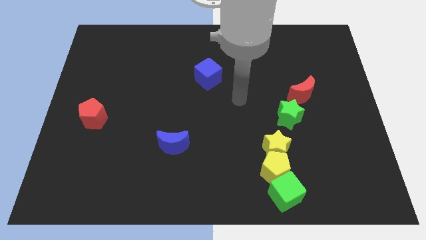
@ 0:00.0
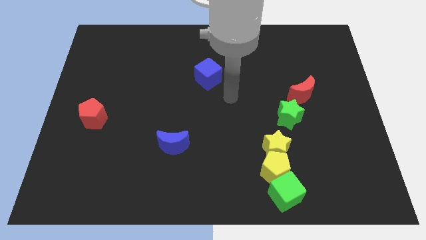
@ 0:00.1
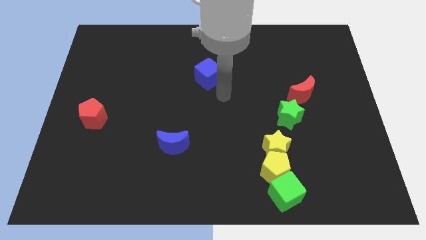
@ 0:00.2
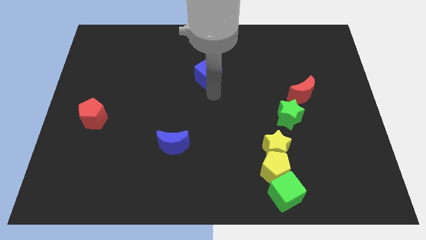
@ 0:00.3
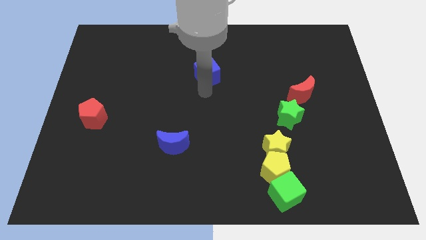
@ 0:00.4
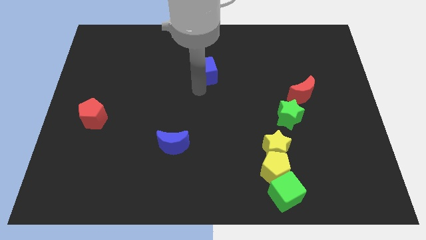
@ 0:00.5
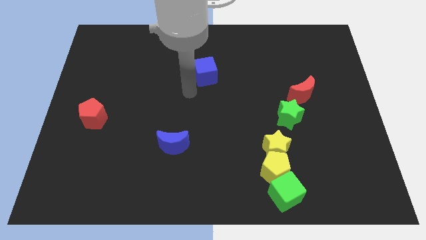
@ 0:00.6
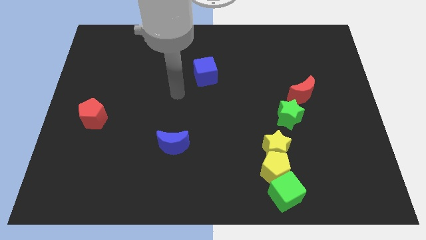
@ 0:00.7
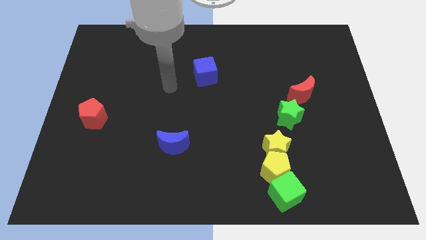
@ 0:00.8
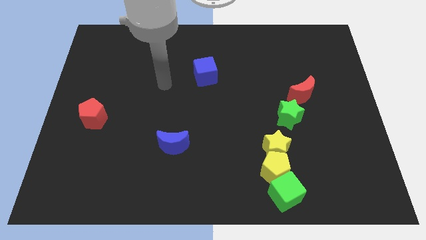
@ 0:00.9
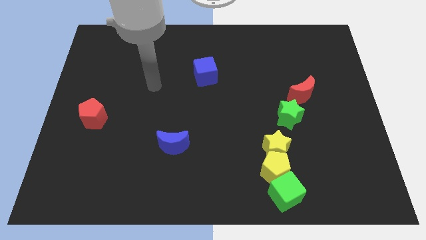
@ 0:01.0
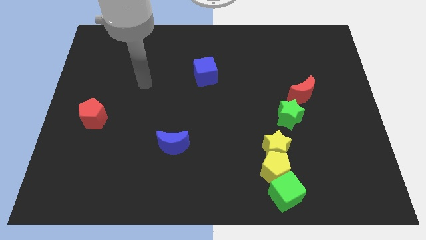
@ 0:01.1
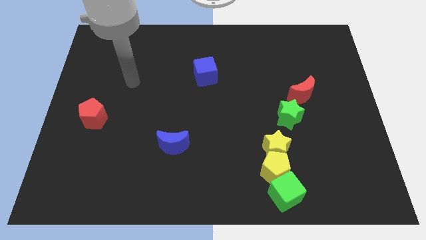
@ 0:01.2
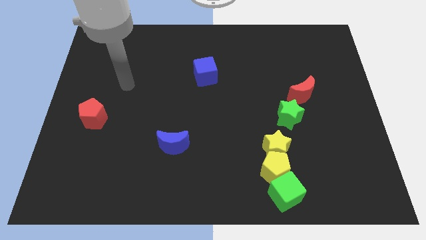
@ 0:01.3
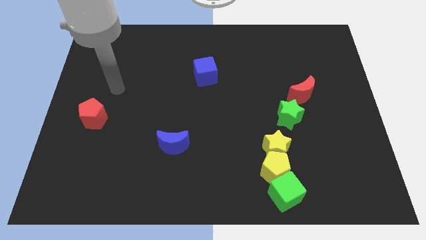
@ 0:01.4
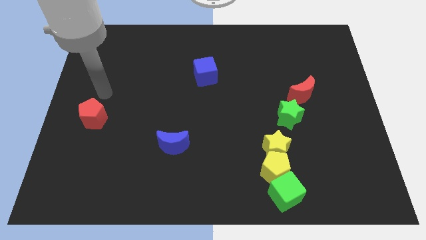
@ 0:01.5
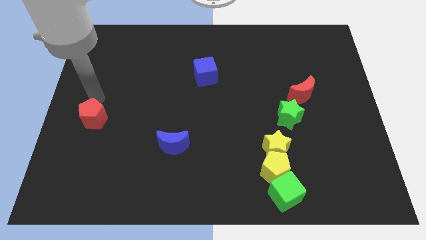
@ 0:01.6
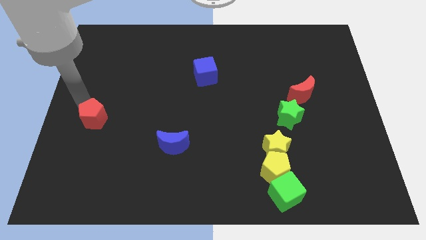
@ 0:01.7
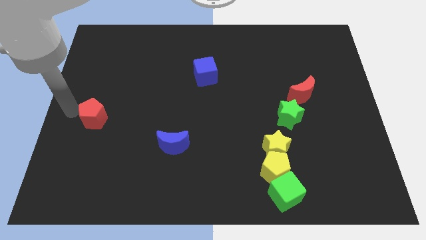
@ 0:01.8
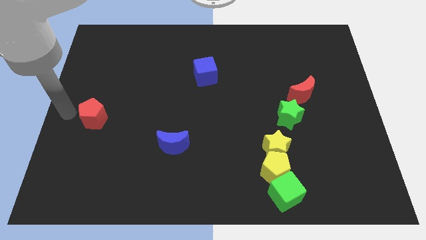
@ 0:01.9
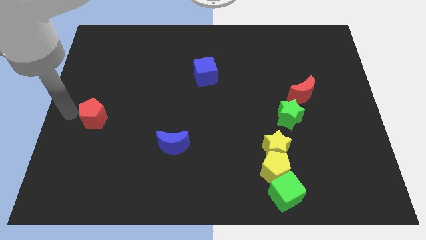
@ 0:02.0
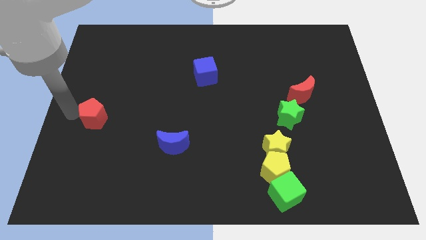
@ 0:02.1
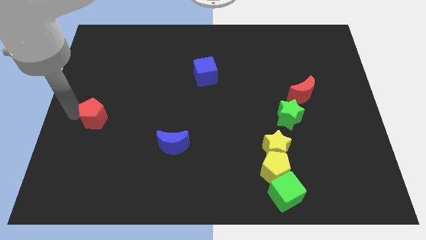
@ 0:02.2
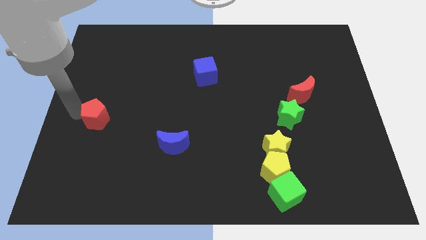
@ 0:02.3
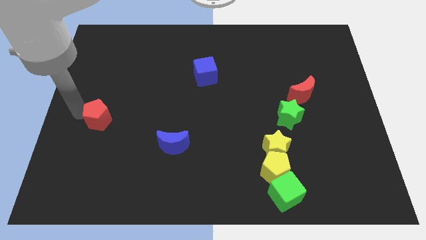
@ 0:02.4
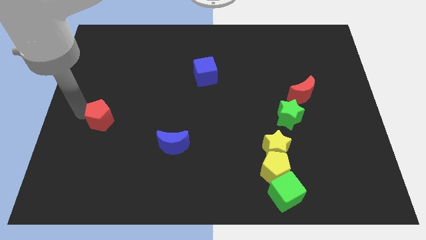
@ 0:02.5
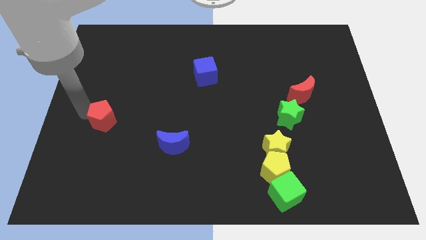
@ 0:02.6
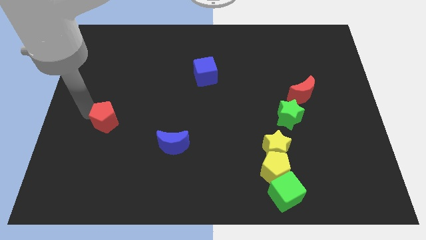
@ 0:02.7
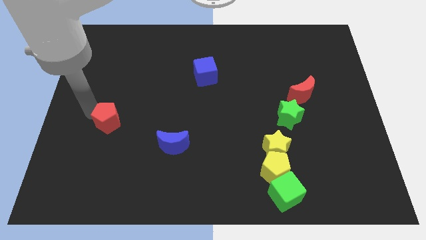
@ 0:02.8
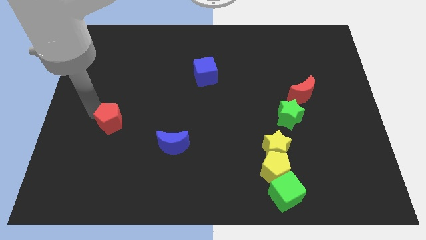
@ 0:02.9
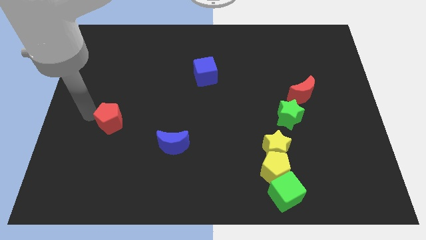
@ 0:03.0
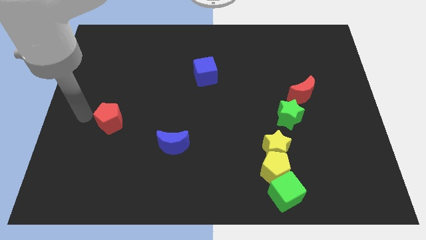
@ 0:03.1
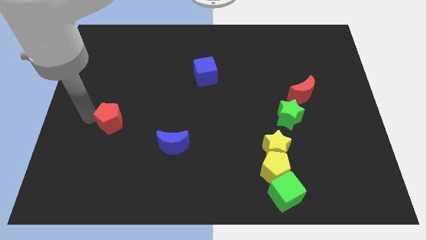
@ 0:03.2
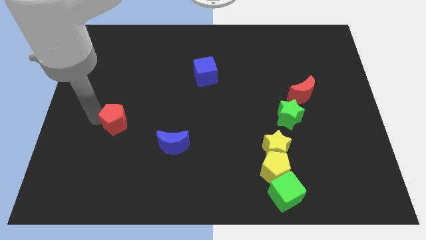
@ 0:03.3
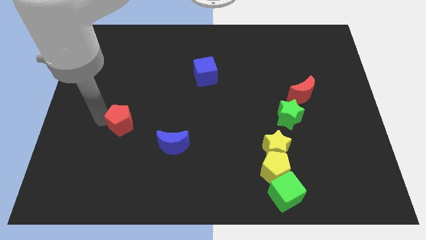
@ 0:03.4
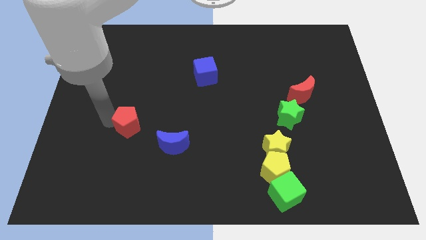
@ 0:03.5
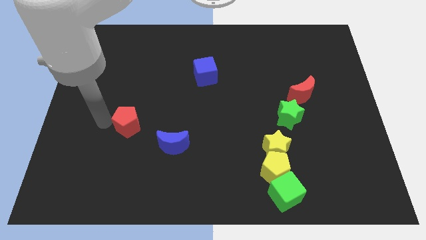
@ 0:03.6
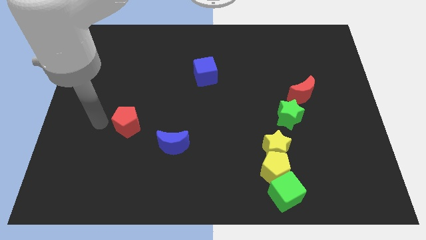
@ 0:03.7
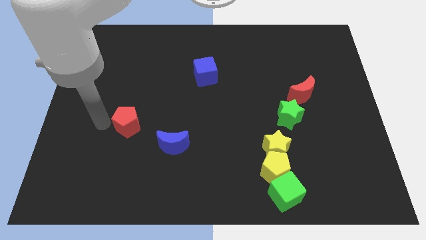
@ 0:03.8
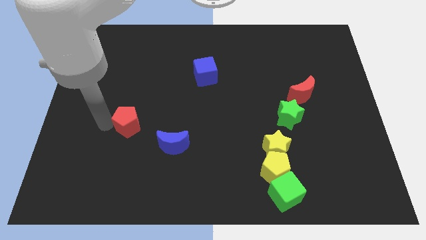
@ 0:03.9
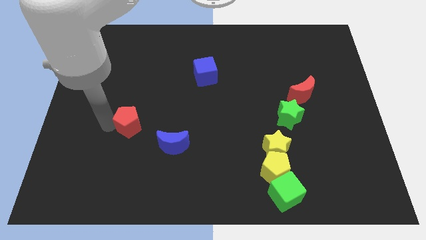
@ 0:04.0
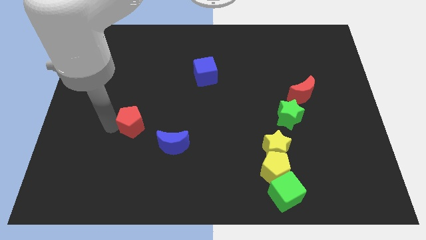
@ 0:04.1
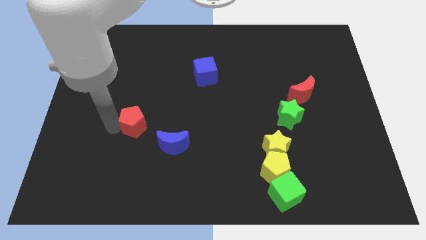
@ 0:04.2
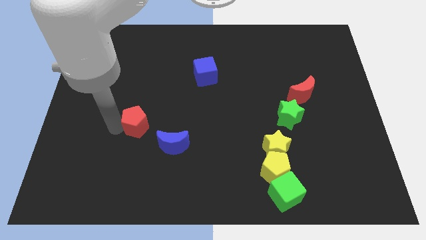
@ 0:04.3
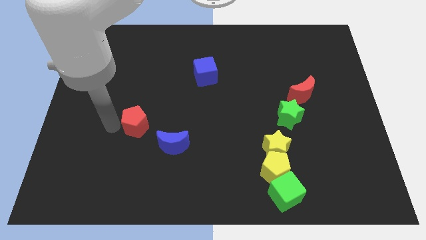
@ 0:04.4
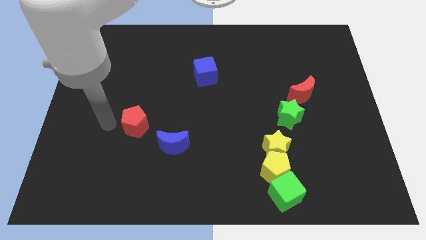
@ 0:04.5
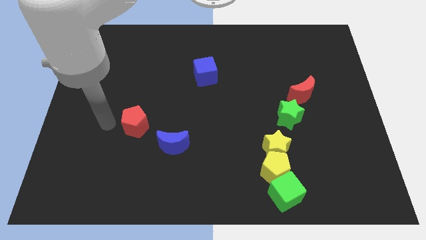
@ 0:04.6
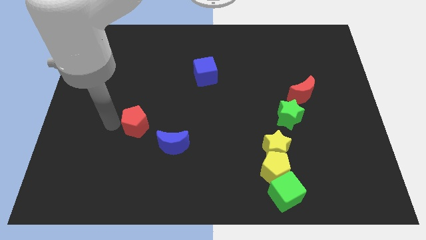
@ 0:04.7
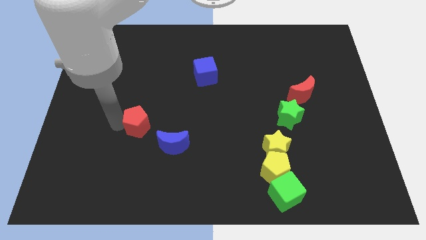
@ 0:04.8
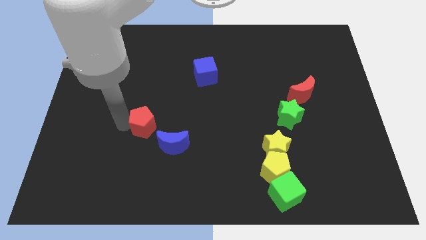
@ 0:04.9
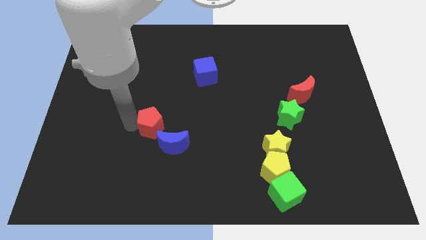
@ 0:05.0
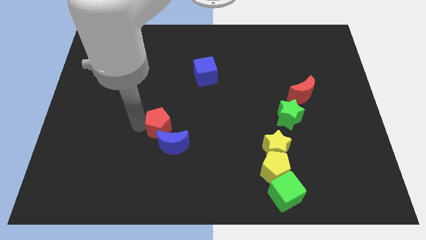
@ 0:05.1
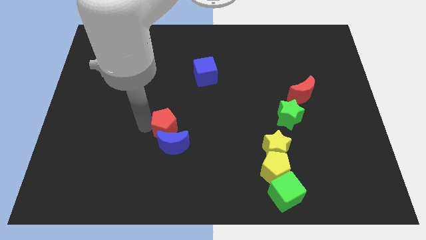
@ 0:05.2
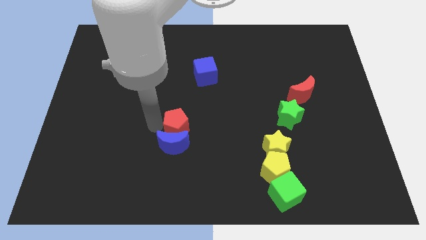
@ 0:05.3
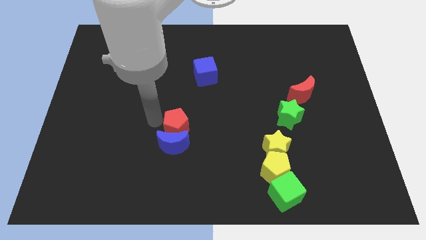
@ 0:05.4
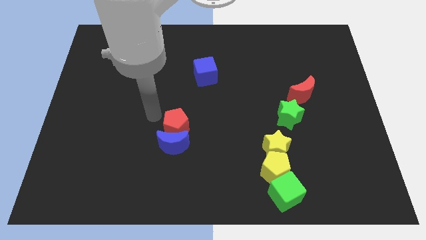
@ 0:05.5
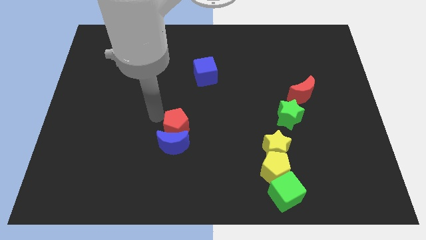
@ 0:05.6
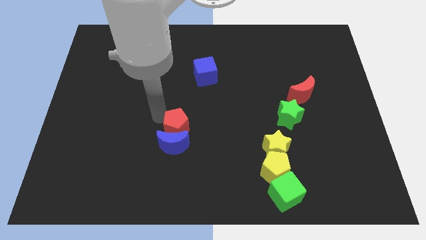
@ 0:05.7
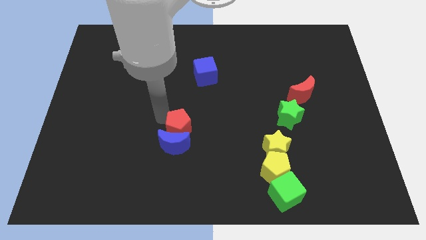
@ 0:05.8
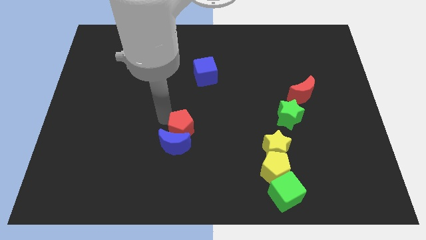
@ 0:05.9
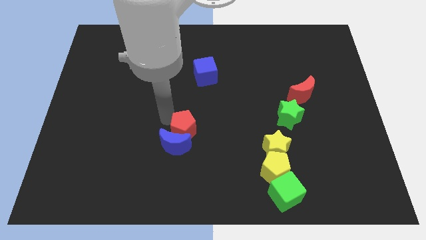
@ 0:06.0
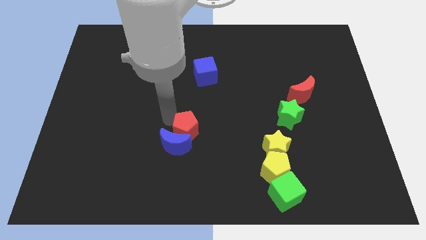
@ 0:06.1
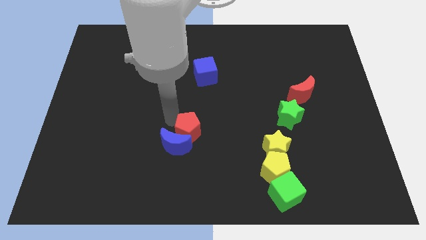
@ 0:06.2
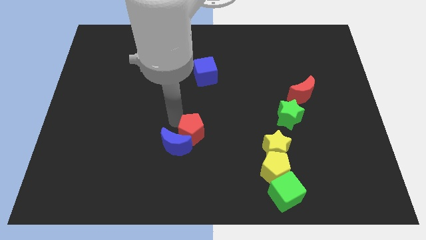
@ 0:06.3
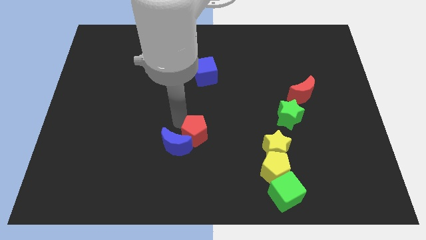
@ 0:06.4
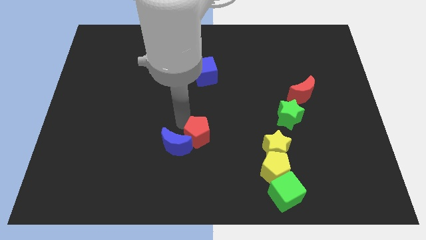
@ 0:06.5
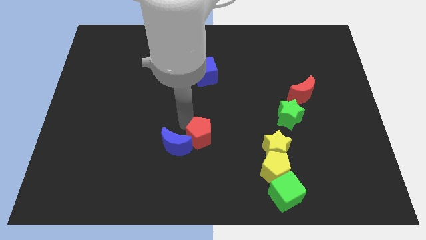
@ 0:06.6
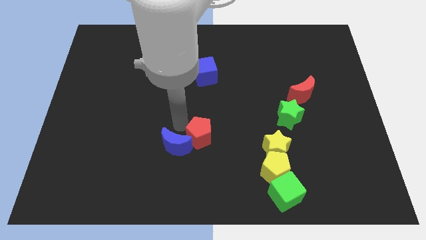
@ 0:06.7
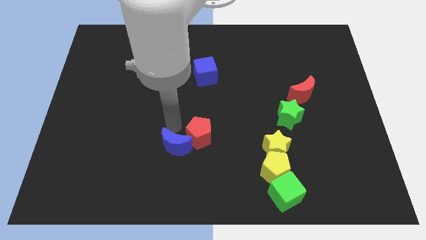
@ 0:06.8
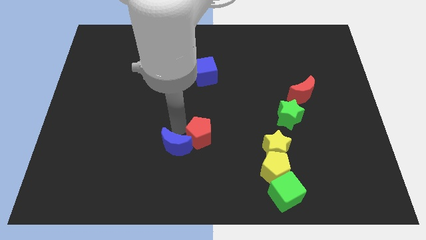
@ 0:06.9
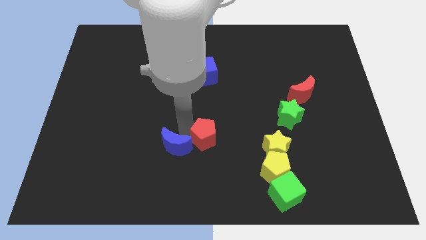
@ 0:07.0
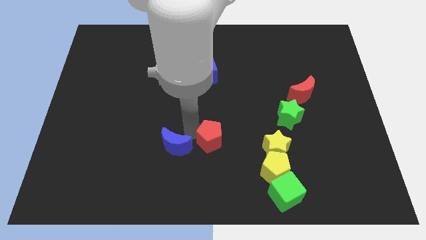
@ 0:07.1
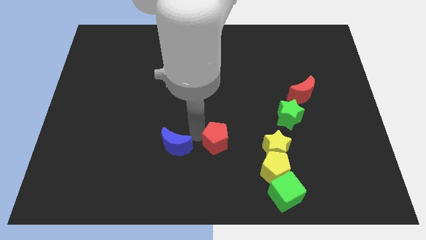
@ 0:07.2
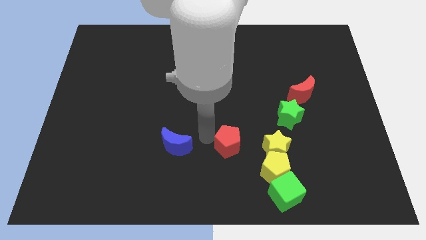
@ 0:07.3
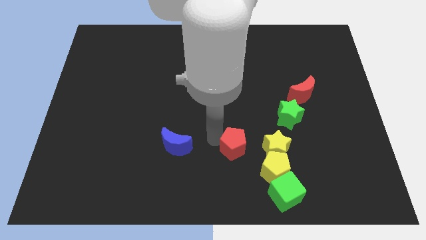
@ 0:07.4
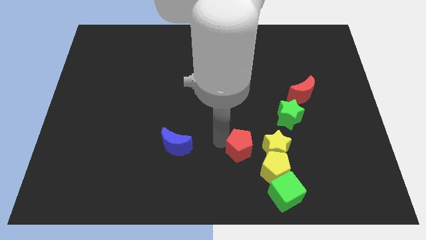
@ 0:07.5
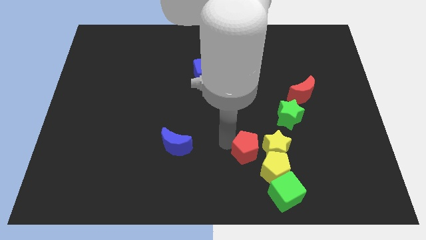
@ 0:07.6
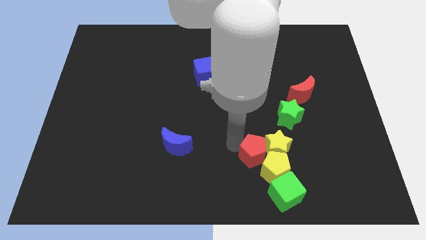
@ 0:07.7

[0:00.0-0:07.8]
put the red pentagon towards the yellow pentagon
